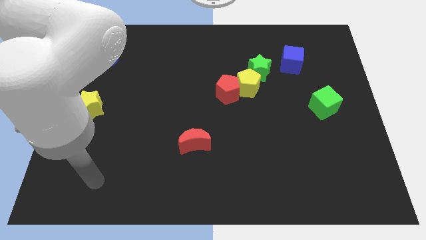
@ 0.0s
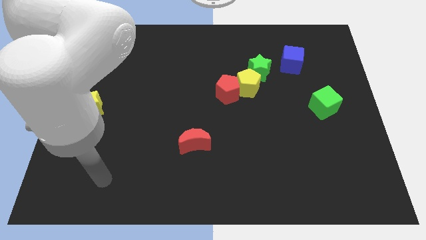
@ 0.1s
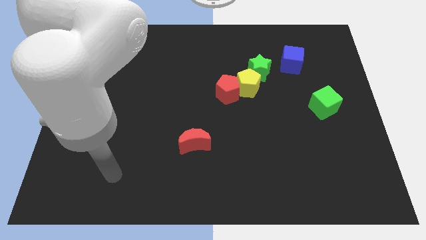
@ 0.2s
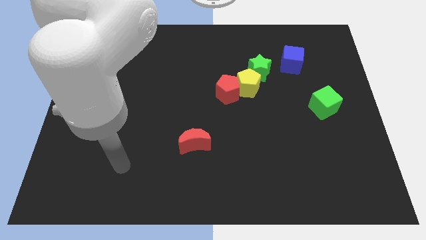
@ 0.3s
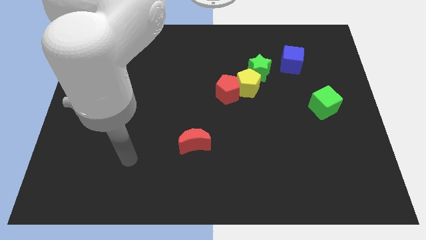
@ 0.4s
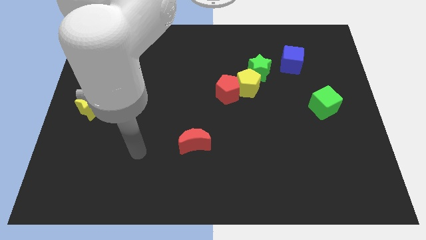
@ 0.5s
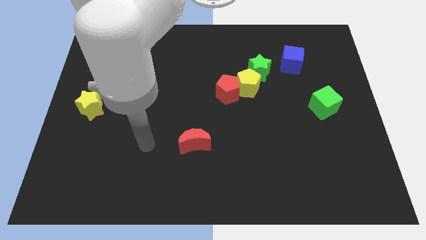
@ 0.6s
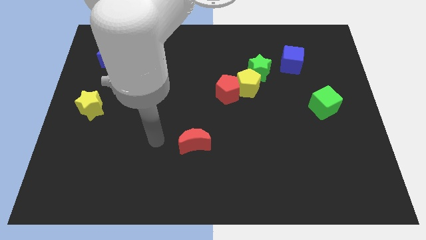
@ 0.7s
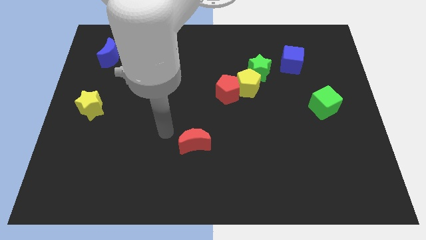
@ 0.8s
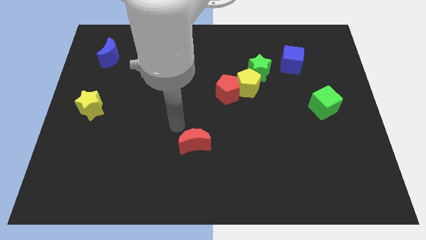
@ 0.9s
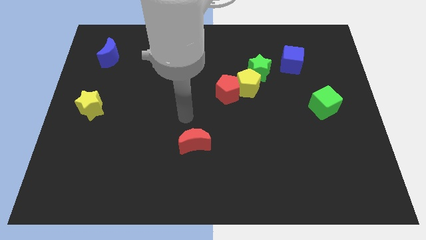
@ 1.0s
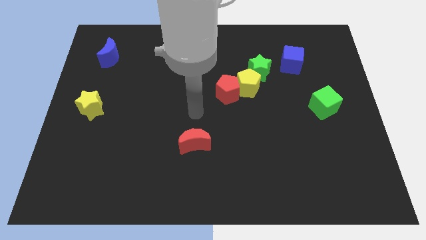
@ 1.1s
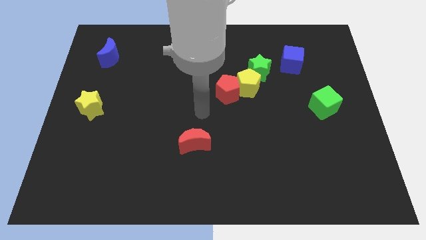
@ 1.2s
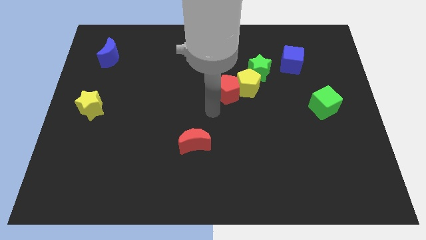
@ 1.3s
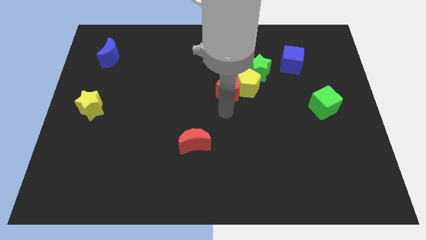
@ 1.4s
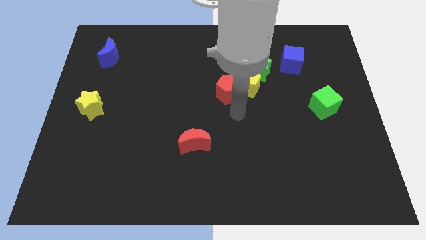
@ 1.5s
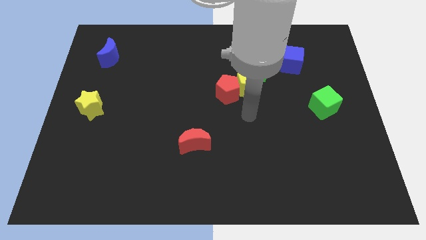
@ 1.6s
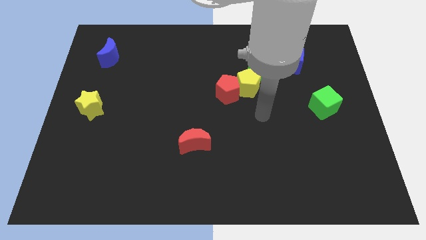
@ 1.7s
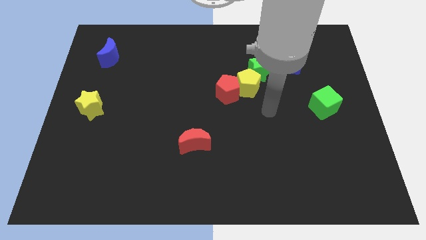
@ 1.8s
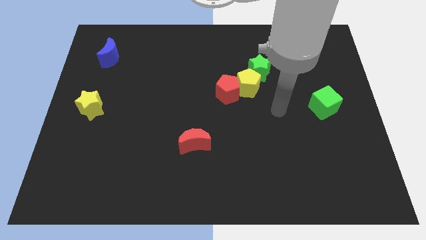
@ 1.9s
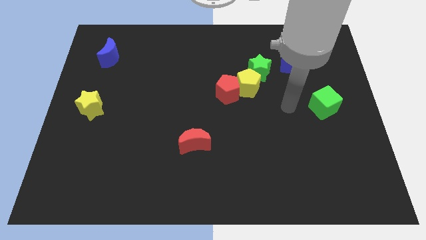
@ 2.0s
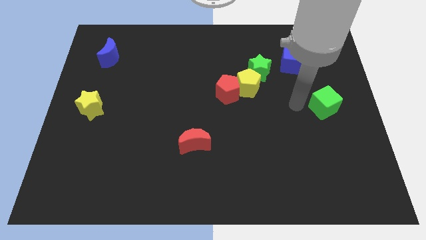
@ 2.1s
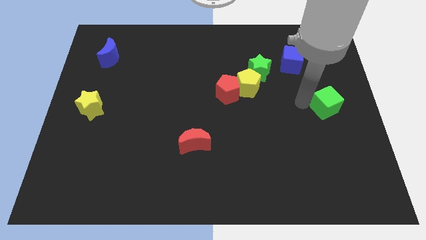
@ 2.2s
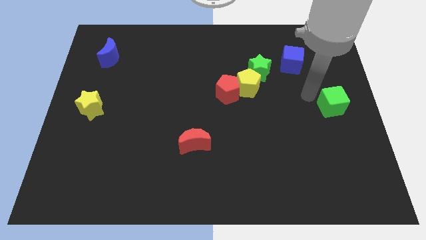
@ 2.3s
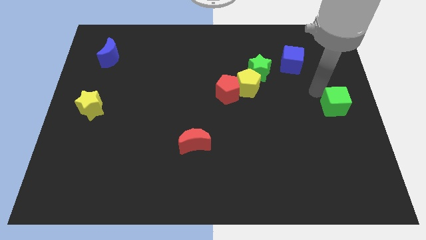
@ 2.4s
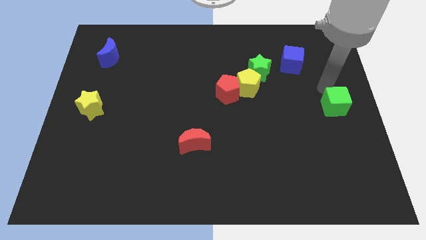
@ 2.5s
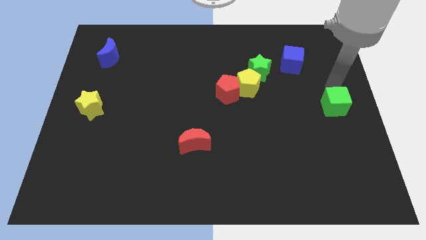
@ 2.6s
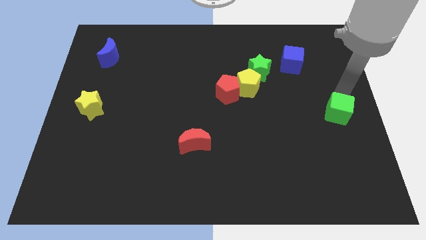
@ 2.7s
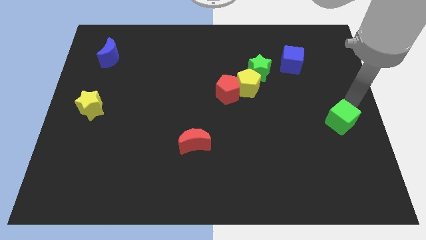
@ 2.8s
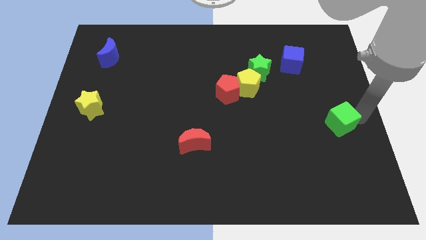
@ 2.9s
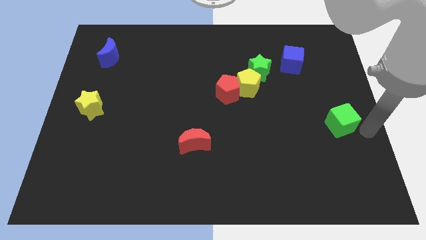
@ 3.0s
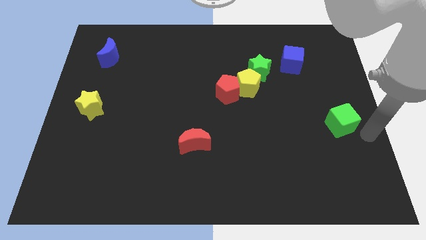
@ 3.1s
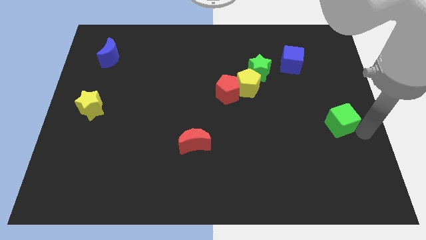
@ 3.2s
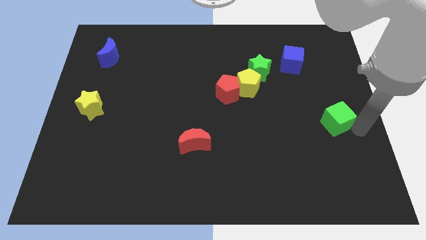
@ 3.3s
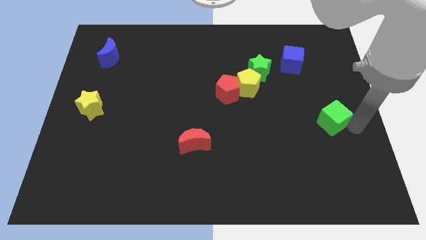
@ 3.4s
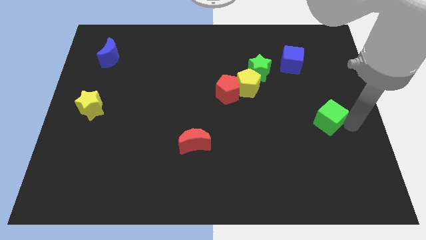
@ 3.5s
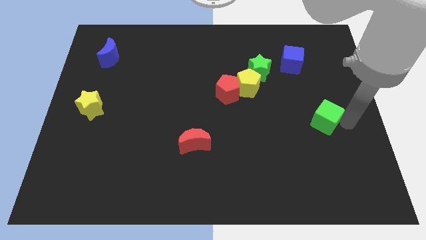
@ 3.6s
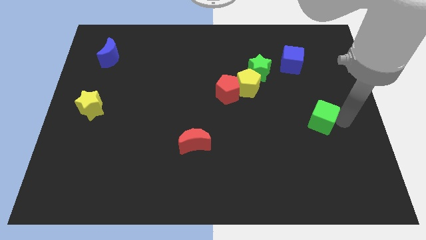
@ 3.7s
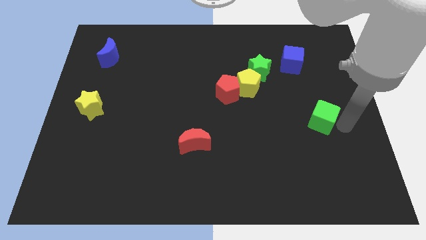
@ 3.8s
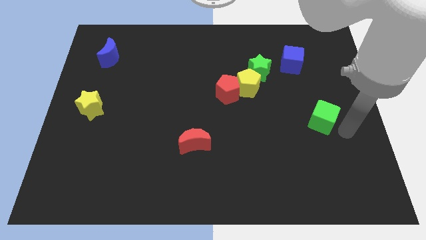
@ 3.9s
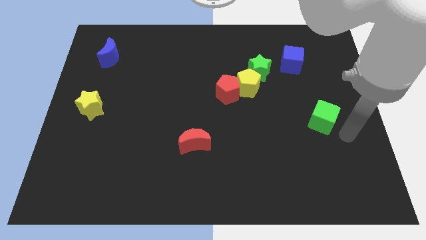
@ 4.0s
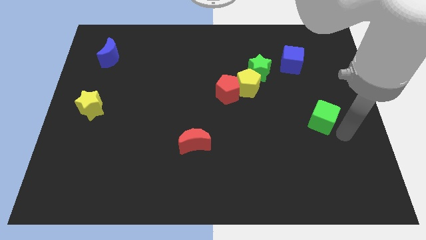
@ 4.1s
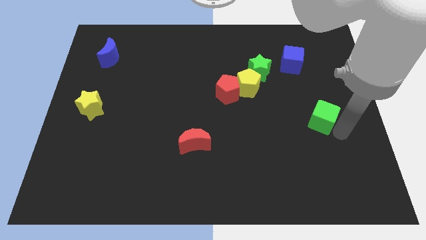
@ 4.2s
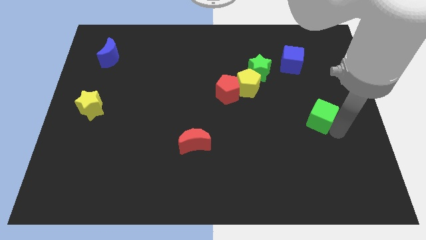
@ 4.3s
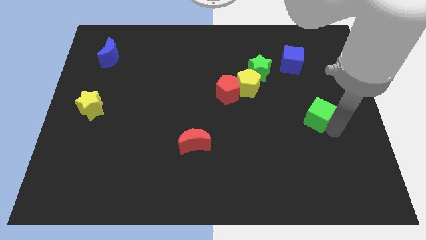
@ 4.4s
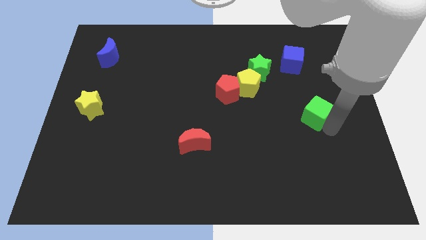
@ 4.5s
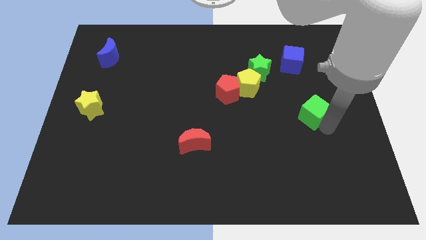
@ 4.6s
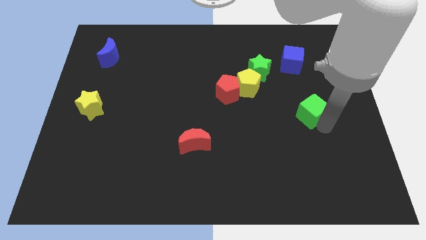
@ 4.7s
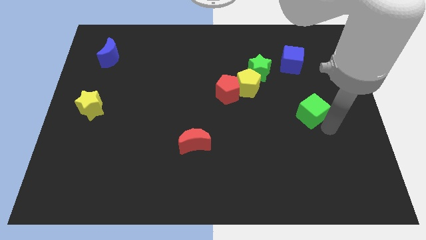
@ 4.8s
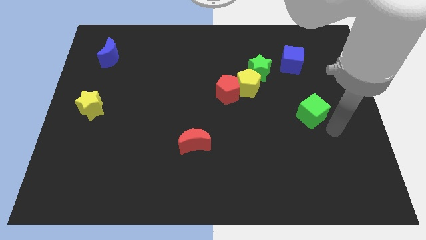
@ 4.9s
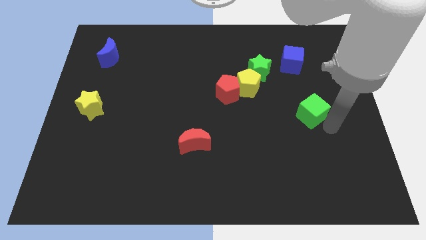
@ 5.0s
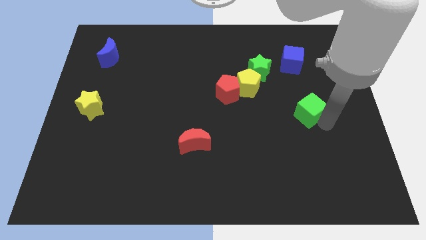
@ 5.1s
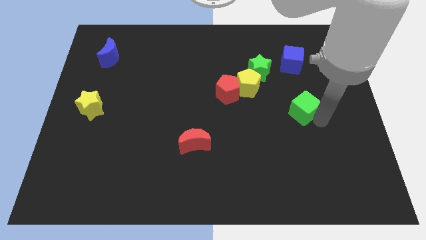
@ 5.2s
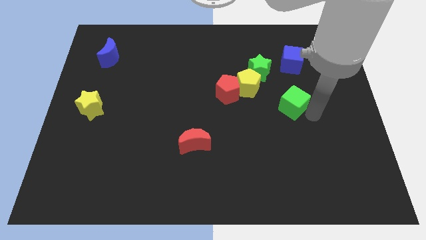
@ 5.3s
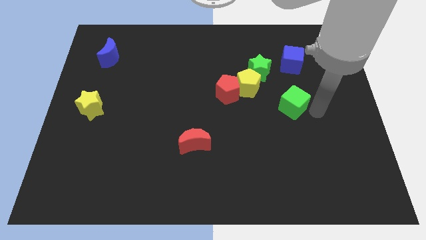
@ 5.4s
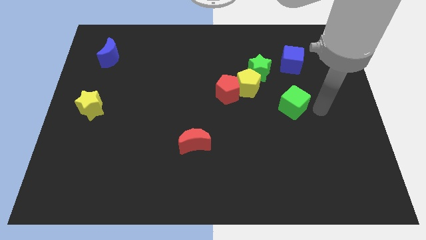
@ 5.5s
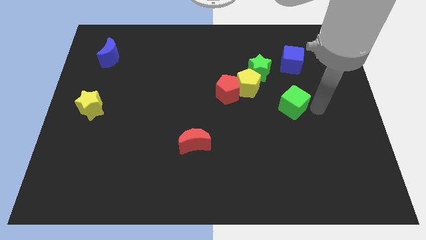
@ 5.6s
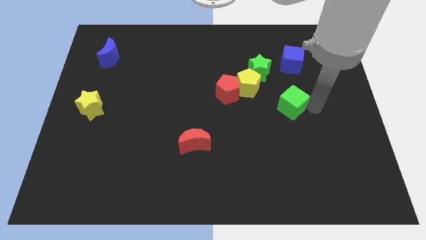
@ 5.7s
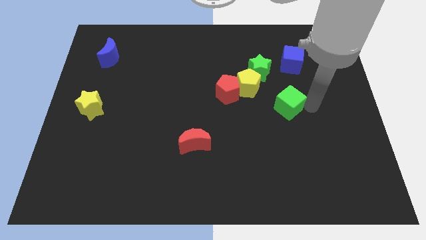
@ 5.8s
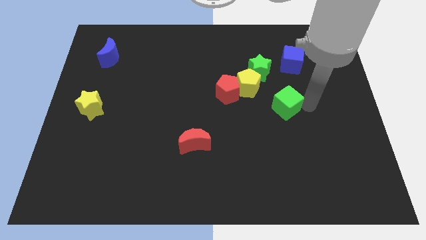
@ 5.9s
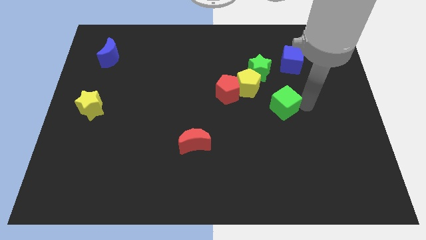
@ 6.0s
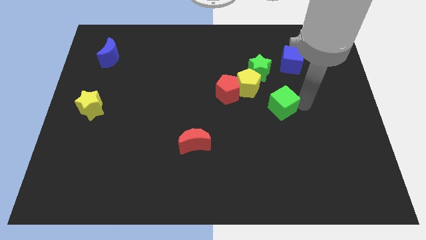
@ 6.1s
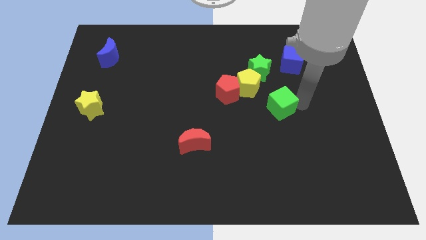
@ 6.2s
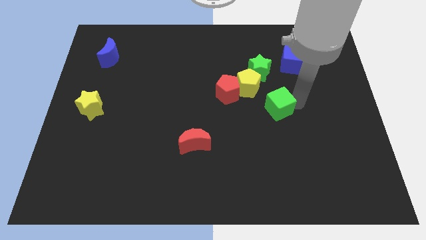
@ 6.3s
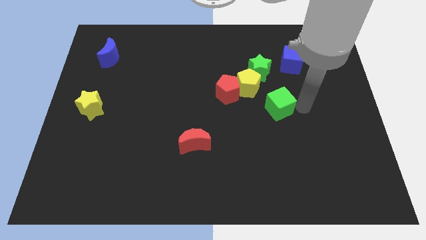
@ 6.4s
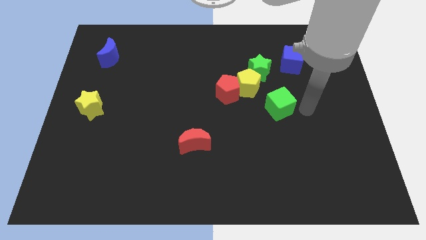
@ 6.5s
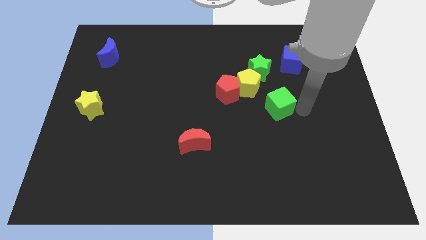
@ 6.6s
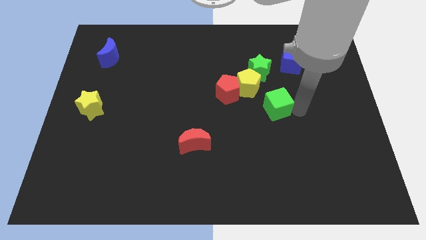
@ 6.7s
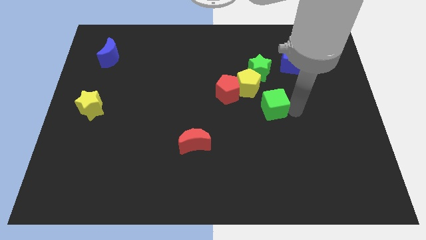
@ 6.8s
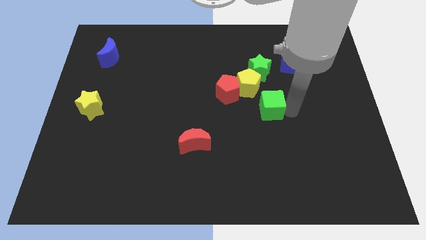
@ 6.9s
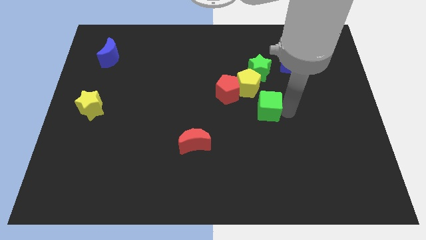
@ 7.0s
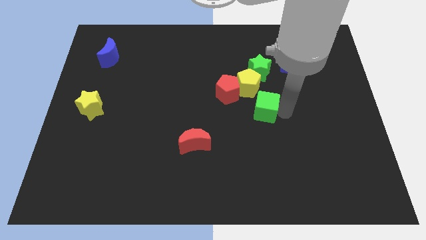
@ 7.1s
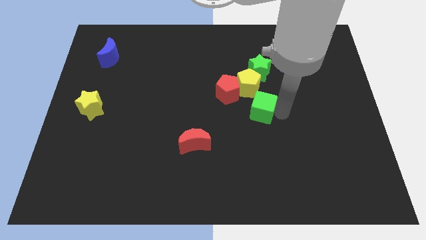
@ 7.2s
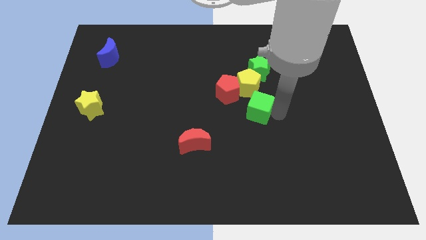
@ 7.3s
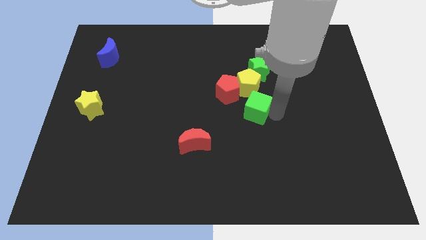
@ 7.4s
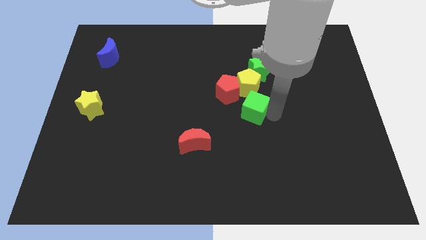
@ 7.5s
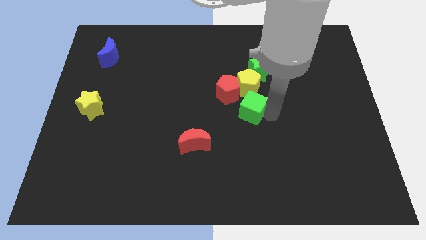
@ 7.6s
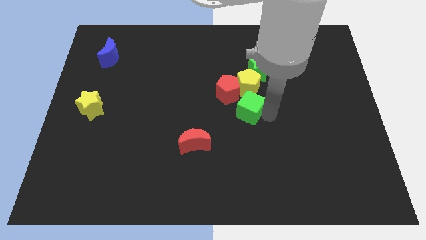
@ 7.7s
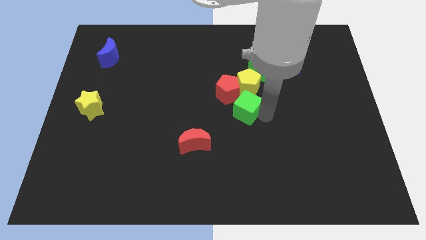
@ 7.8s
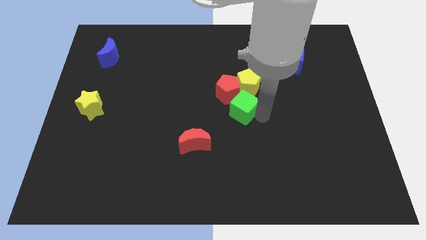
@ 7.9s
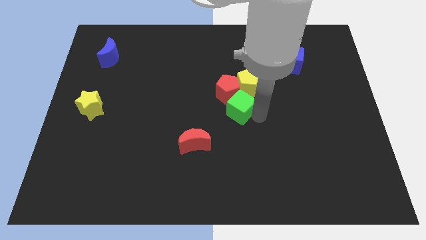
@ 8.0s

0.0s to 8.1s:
push the green cube close to the red pentagon
